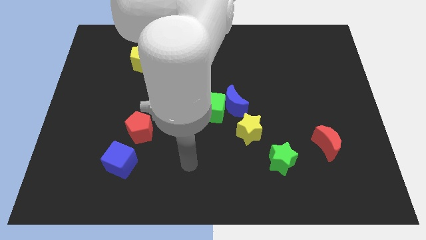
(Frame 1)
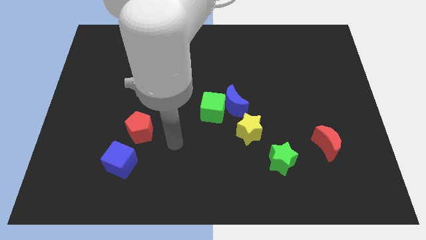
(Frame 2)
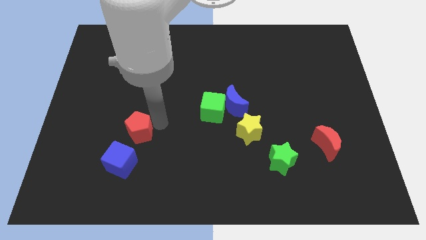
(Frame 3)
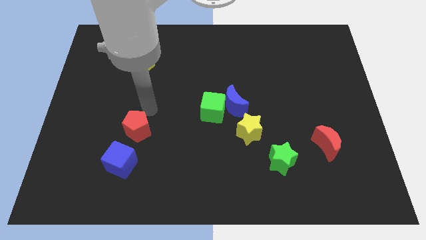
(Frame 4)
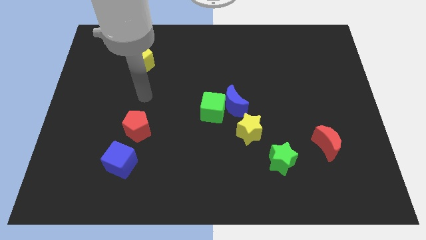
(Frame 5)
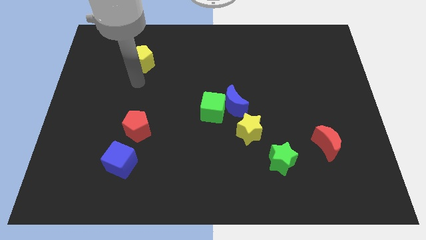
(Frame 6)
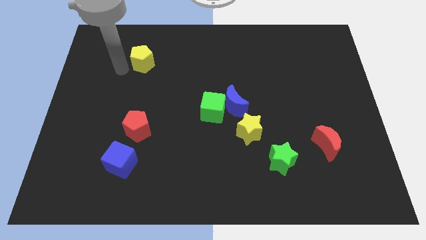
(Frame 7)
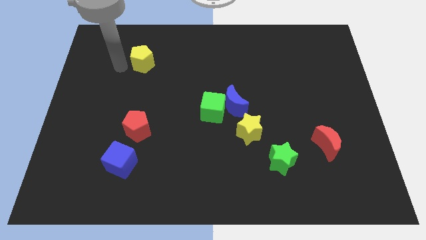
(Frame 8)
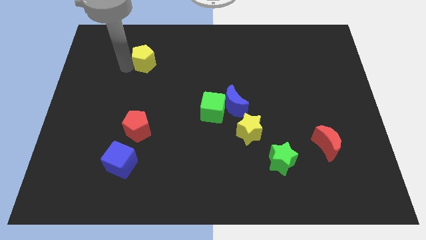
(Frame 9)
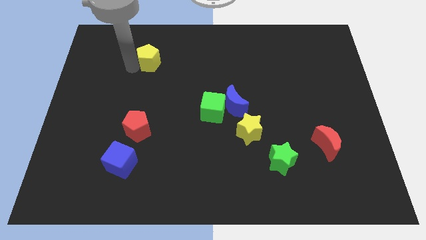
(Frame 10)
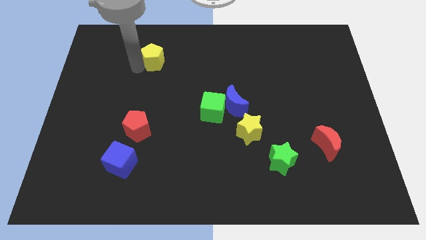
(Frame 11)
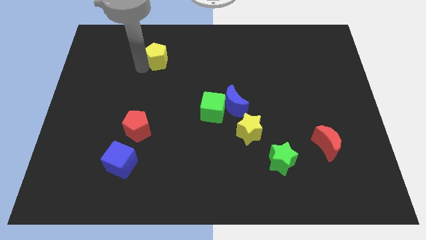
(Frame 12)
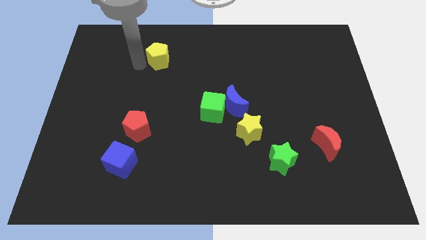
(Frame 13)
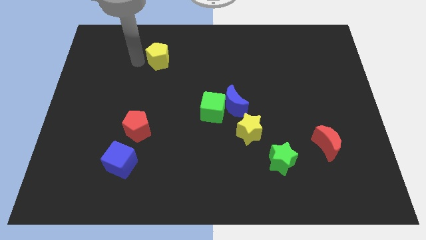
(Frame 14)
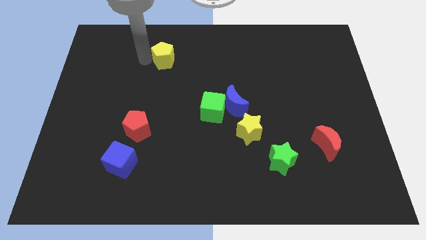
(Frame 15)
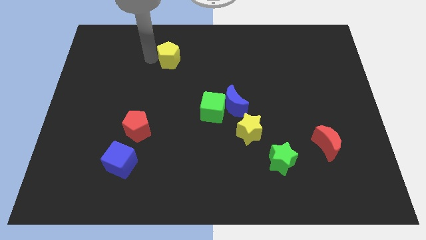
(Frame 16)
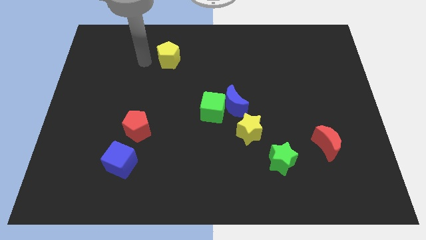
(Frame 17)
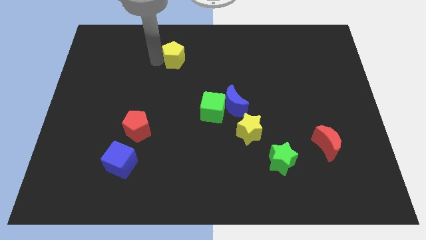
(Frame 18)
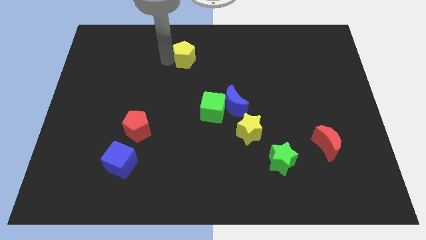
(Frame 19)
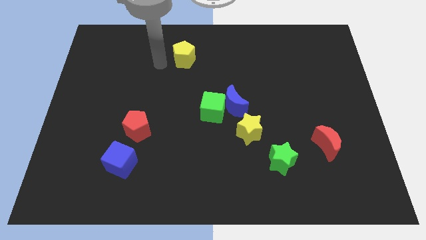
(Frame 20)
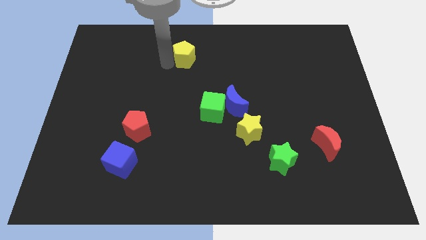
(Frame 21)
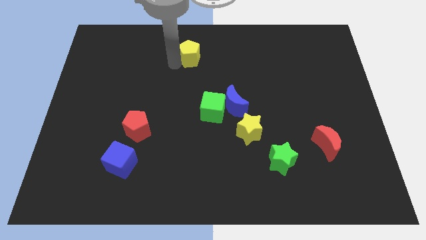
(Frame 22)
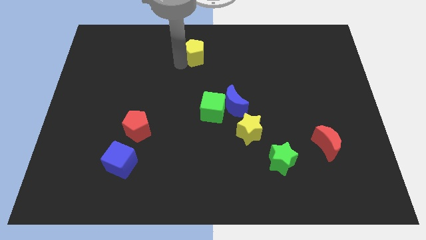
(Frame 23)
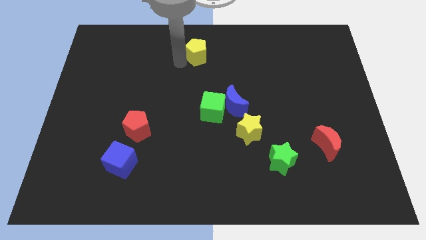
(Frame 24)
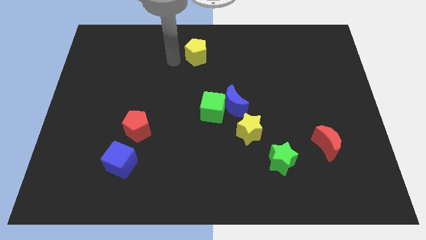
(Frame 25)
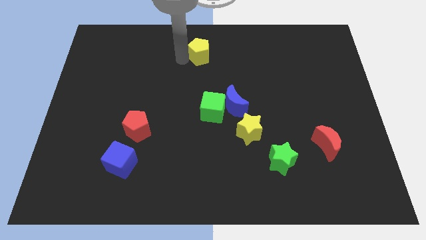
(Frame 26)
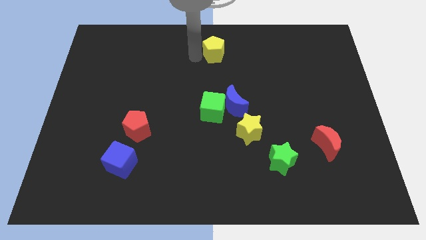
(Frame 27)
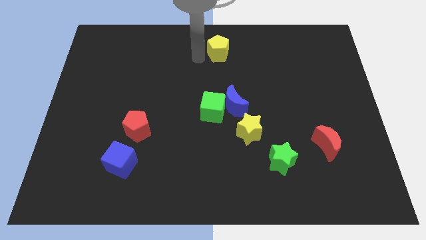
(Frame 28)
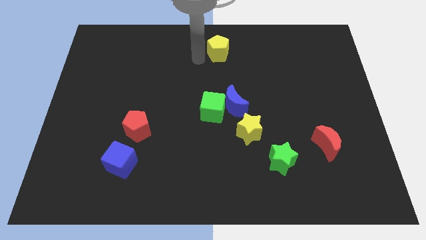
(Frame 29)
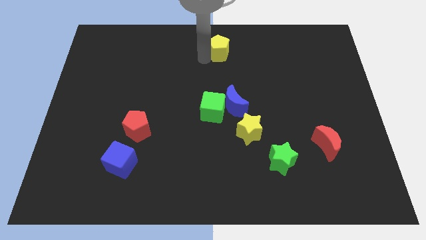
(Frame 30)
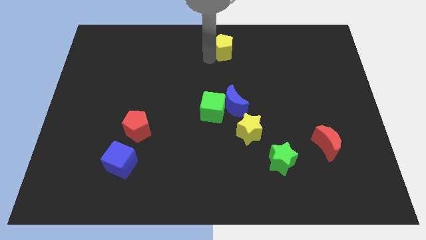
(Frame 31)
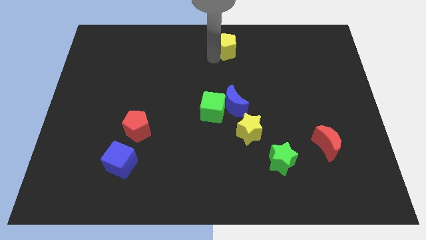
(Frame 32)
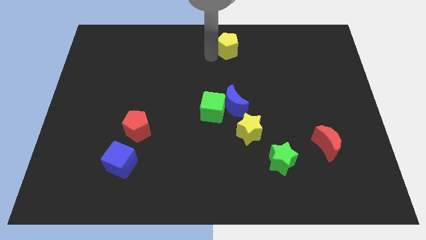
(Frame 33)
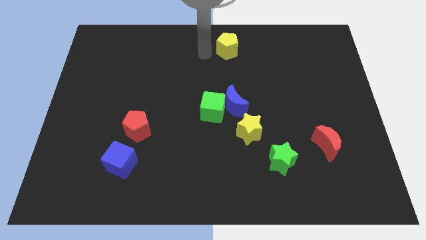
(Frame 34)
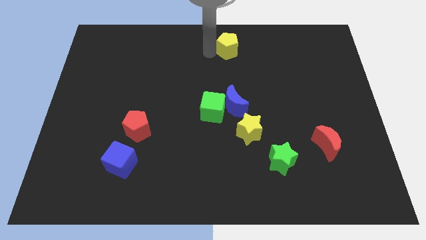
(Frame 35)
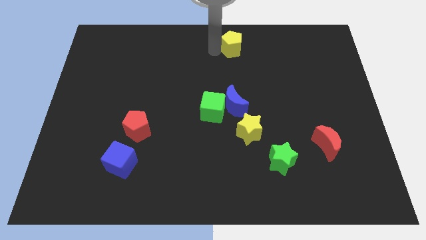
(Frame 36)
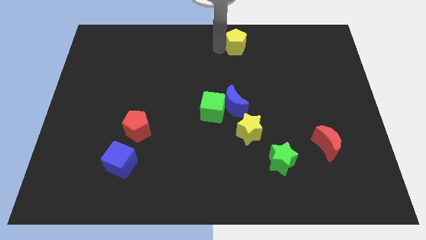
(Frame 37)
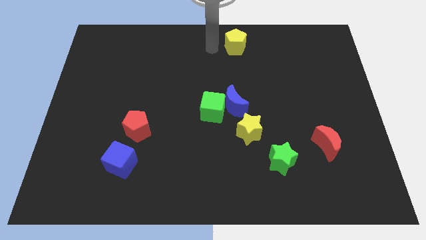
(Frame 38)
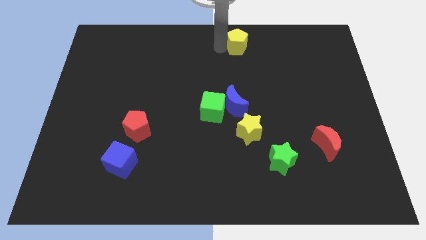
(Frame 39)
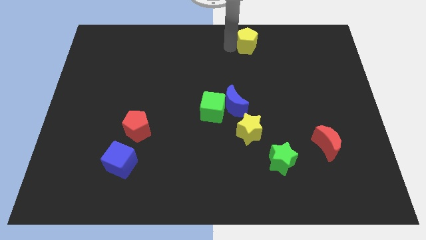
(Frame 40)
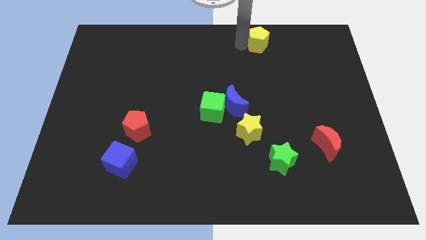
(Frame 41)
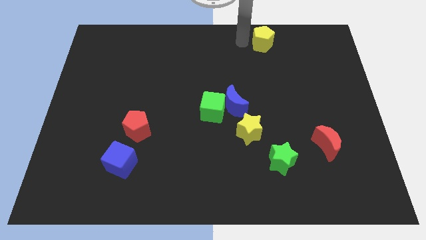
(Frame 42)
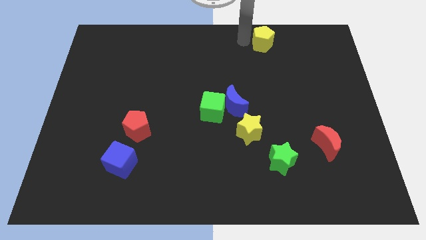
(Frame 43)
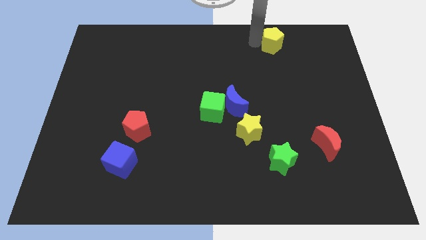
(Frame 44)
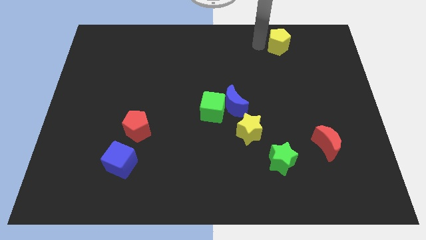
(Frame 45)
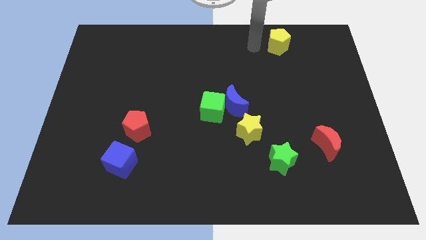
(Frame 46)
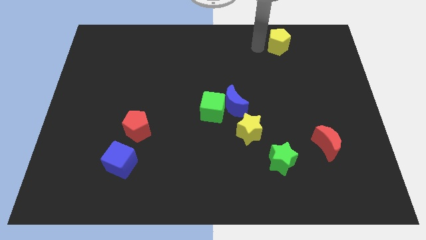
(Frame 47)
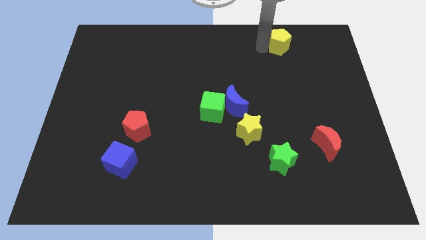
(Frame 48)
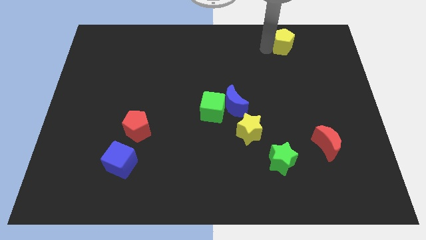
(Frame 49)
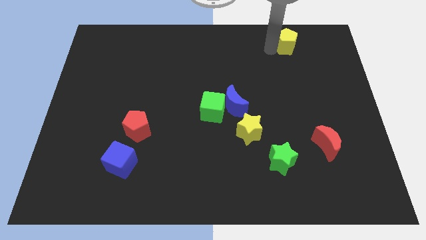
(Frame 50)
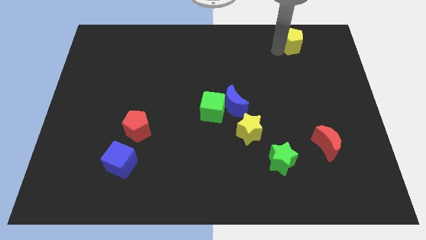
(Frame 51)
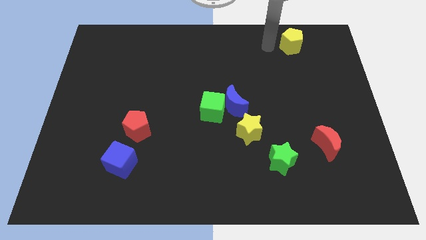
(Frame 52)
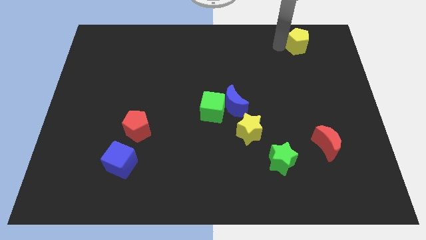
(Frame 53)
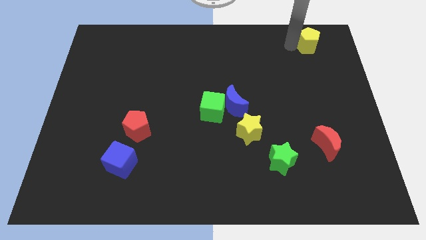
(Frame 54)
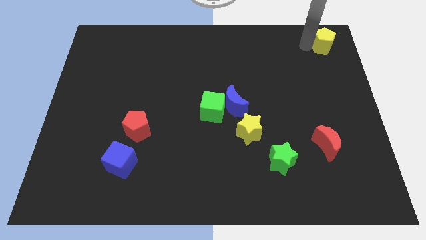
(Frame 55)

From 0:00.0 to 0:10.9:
slide the yellow pentagon to the upper right corner

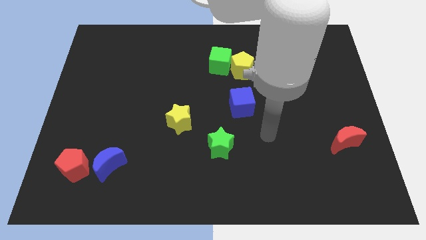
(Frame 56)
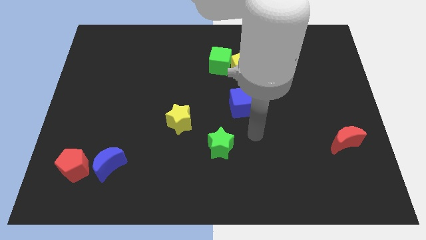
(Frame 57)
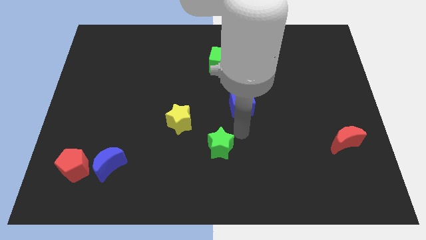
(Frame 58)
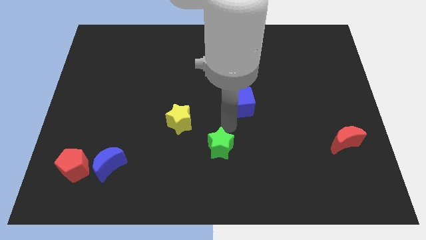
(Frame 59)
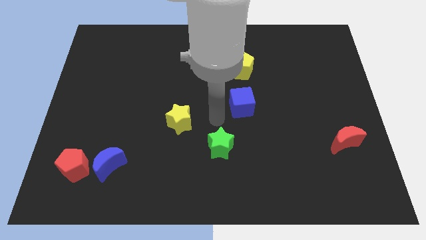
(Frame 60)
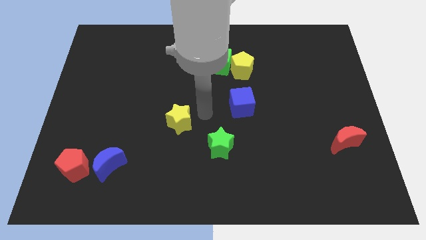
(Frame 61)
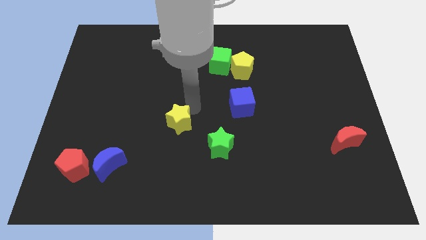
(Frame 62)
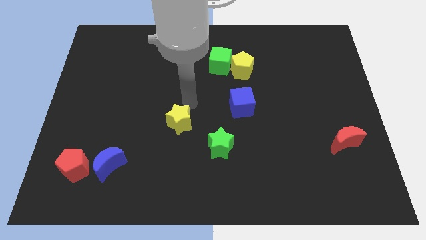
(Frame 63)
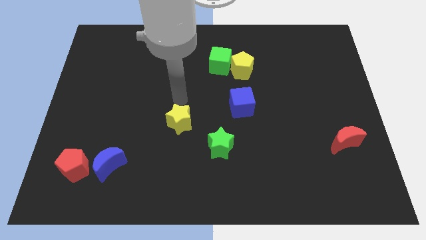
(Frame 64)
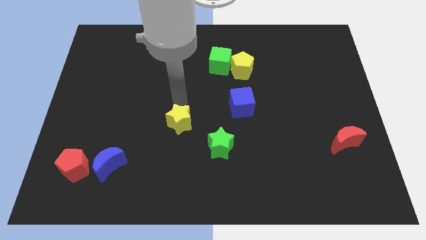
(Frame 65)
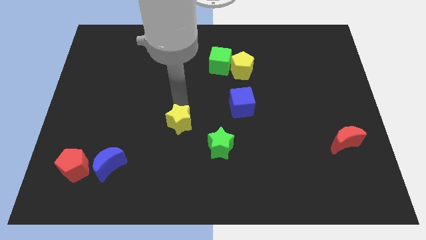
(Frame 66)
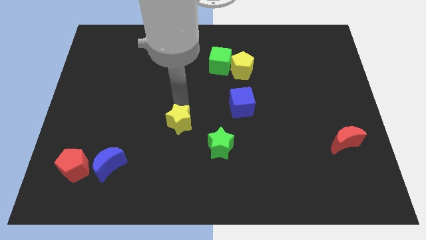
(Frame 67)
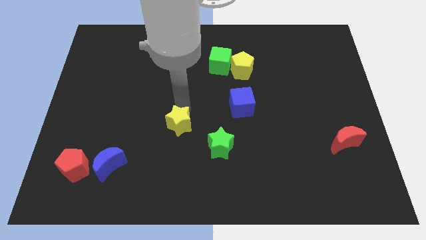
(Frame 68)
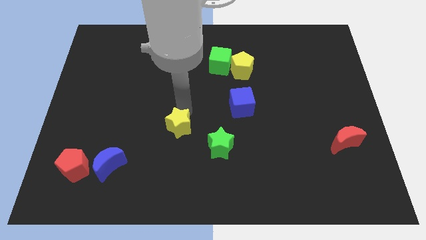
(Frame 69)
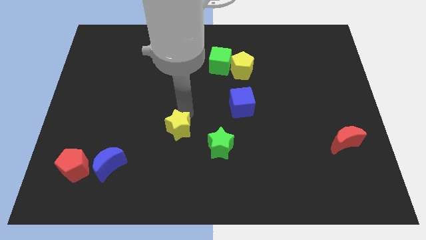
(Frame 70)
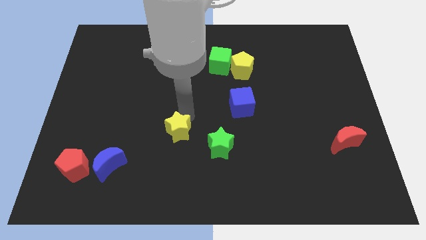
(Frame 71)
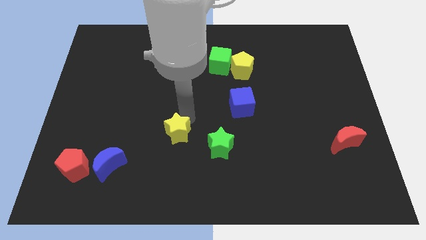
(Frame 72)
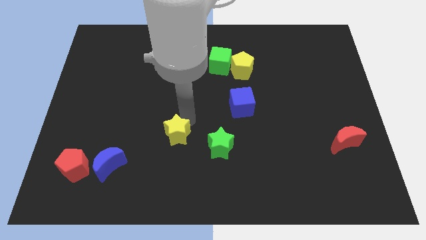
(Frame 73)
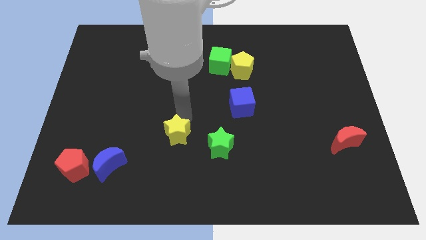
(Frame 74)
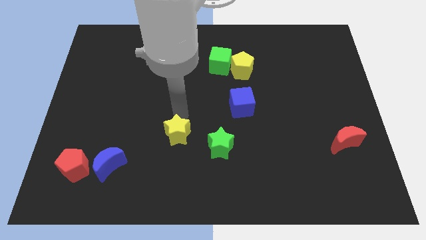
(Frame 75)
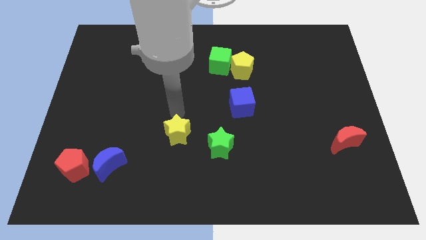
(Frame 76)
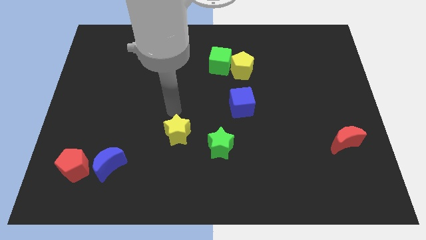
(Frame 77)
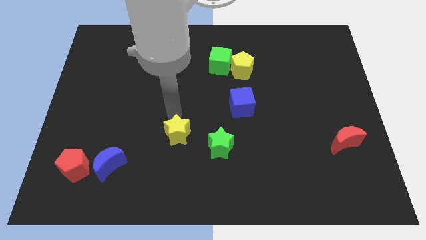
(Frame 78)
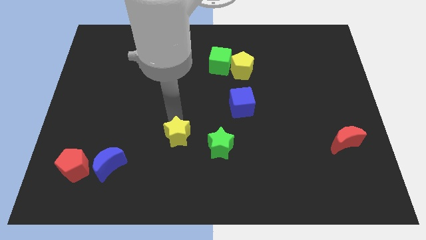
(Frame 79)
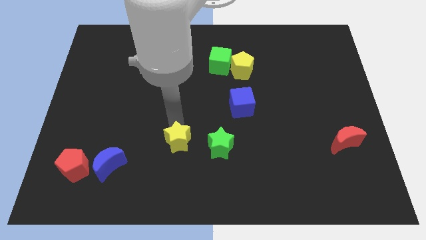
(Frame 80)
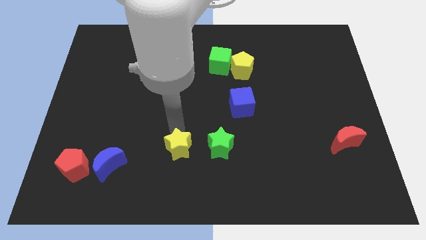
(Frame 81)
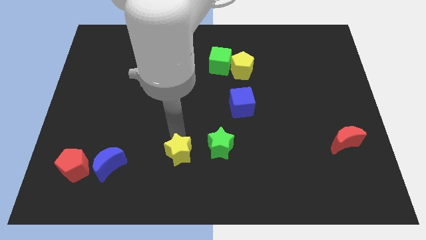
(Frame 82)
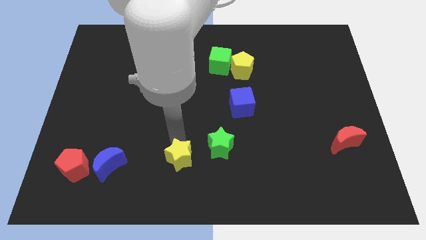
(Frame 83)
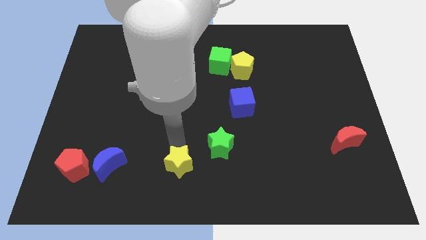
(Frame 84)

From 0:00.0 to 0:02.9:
slide the yellow star to the bottom
